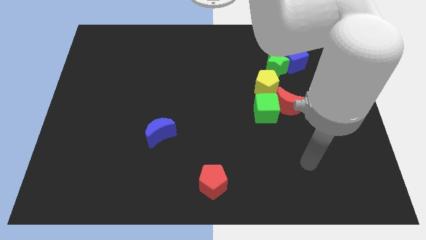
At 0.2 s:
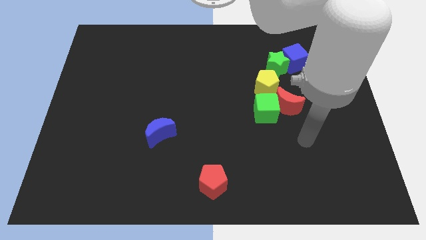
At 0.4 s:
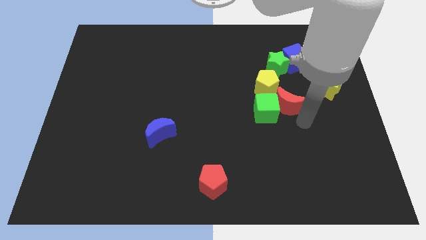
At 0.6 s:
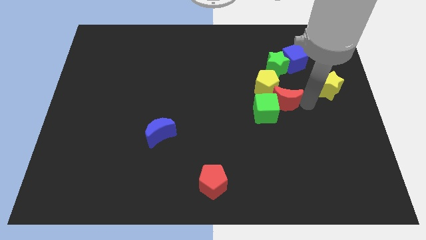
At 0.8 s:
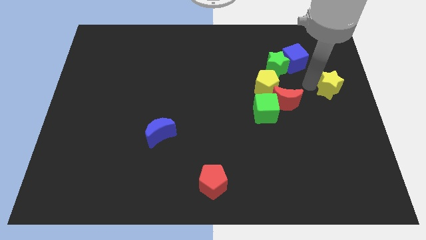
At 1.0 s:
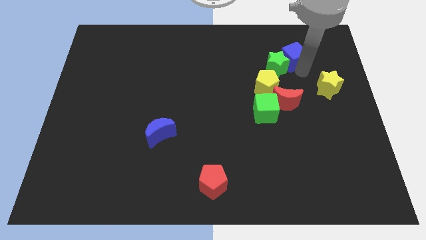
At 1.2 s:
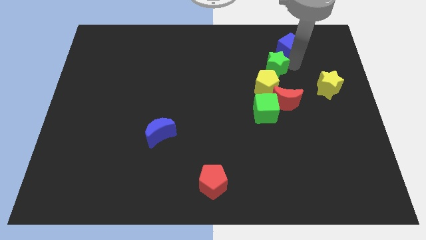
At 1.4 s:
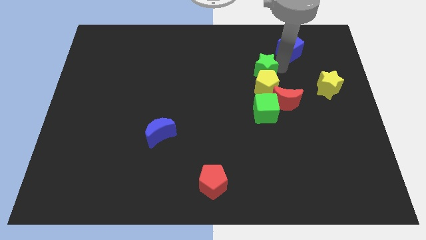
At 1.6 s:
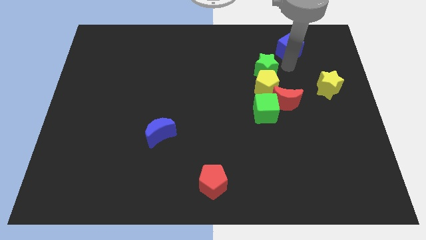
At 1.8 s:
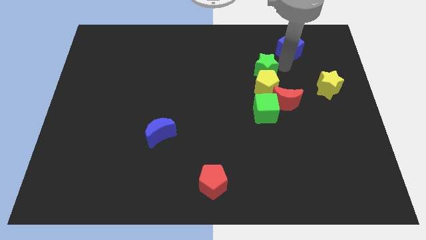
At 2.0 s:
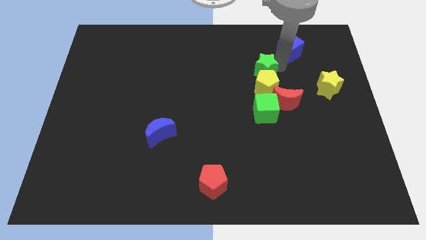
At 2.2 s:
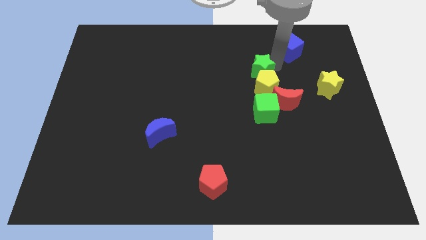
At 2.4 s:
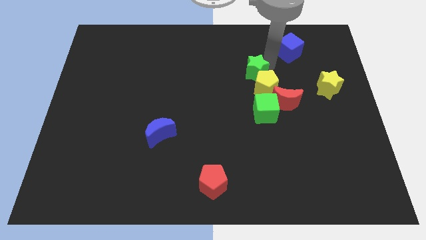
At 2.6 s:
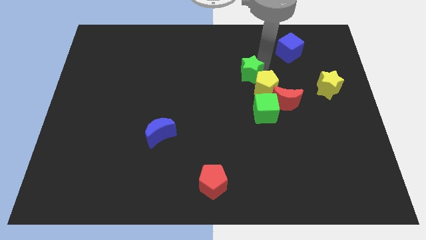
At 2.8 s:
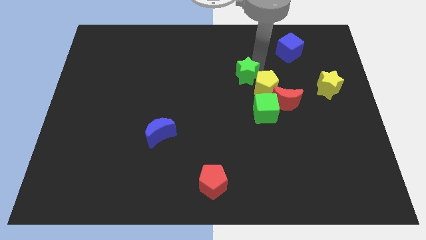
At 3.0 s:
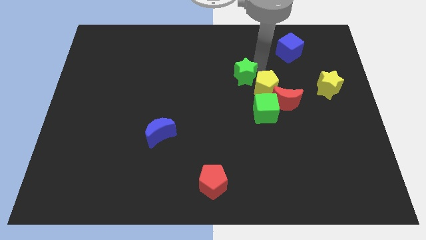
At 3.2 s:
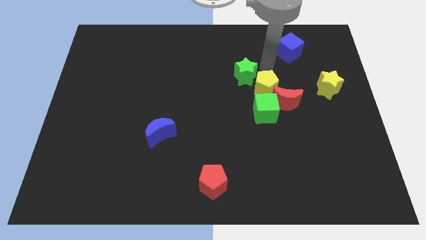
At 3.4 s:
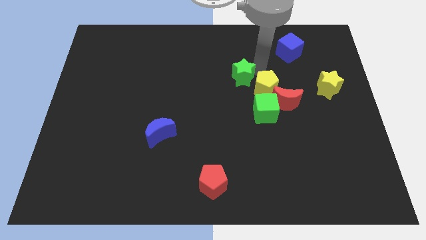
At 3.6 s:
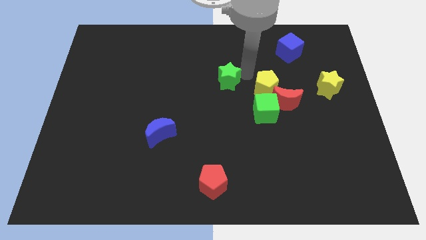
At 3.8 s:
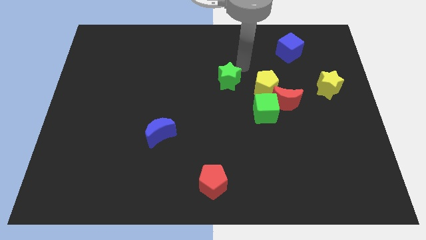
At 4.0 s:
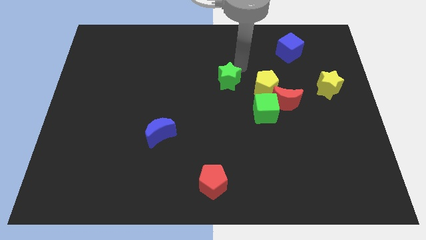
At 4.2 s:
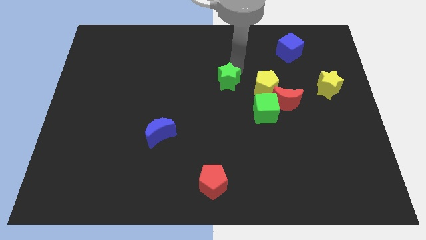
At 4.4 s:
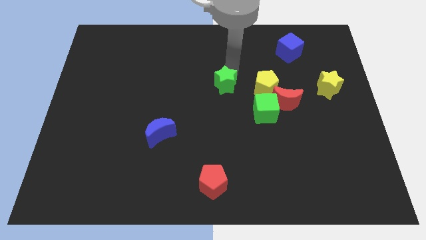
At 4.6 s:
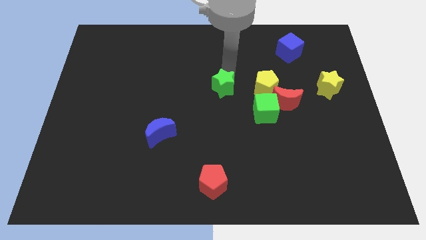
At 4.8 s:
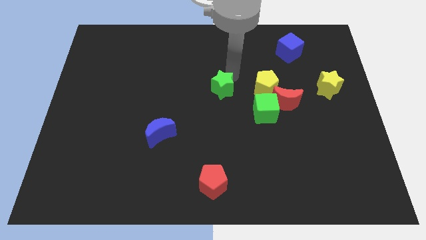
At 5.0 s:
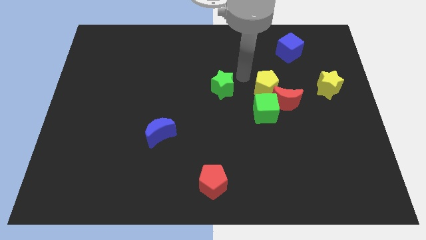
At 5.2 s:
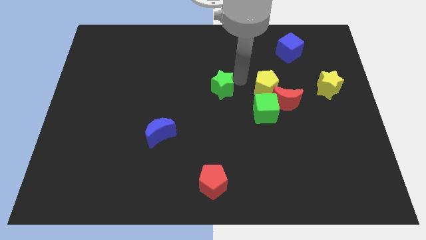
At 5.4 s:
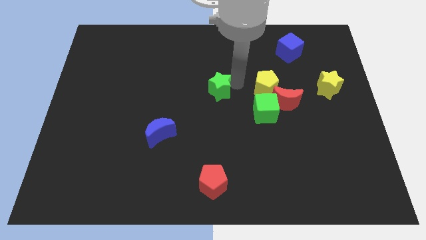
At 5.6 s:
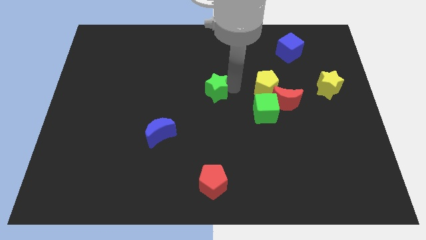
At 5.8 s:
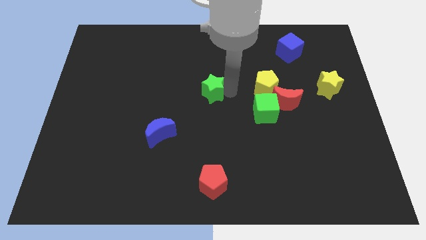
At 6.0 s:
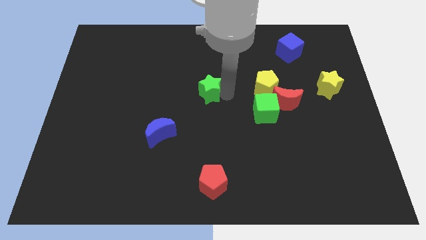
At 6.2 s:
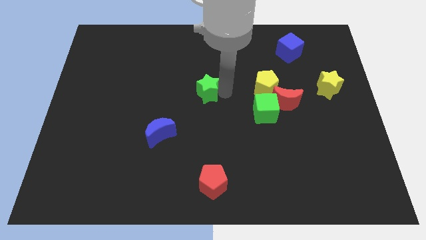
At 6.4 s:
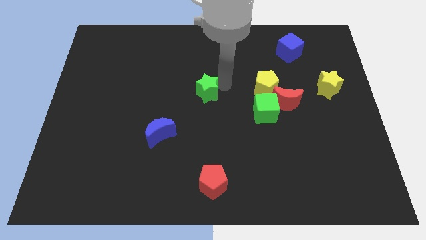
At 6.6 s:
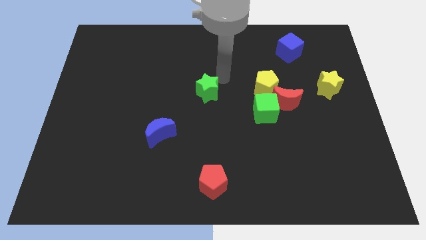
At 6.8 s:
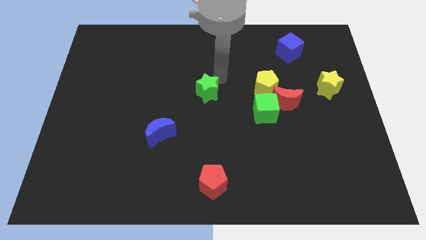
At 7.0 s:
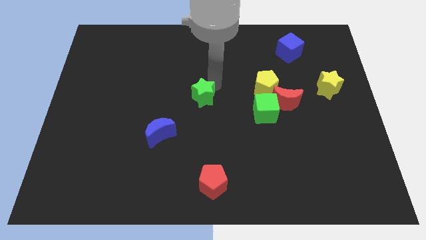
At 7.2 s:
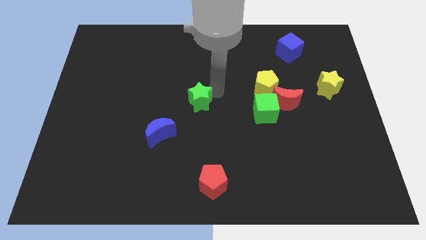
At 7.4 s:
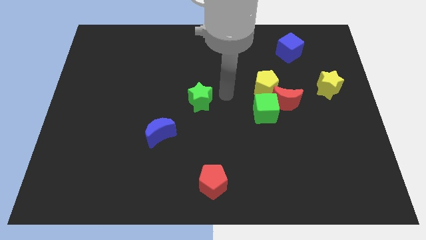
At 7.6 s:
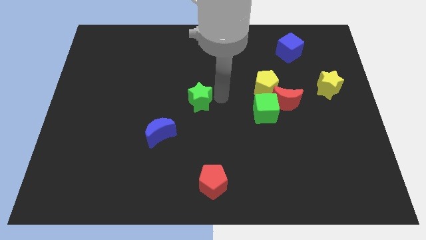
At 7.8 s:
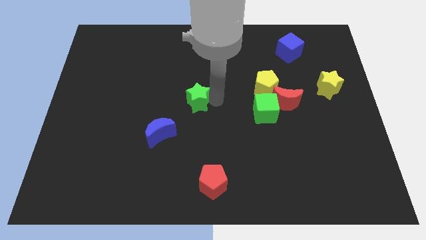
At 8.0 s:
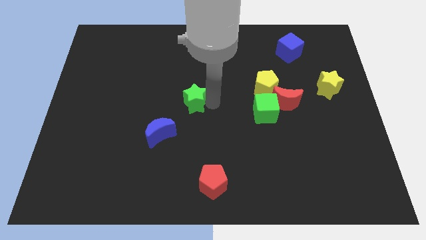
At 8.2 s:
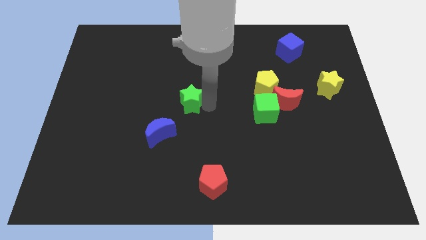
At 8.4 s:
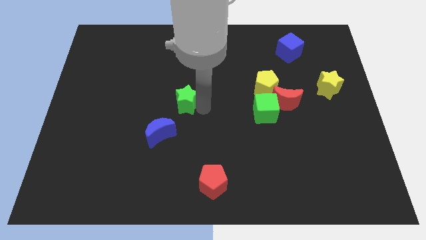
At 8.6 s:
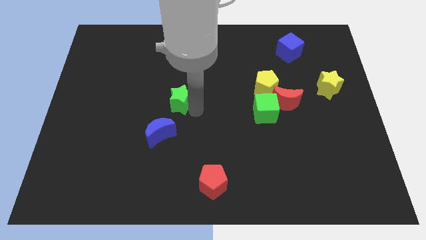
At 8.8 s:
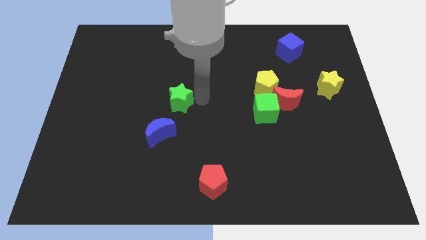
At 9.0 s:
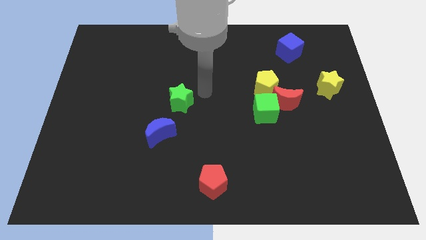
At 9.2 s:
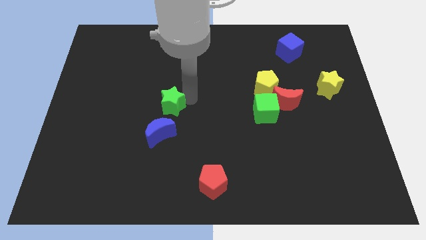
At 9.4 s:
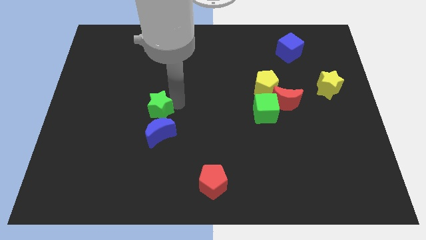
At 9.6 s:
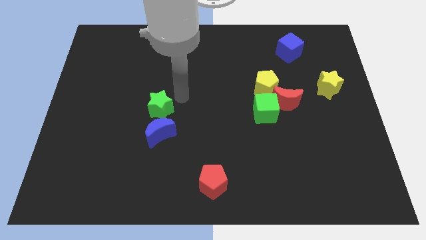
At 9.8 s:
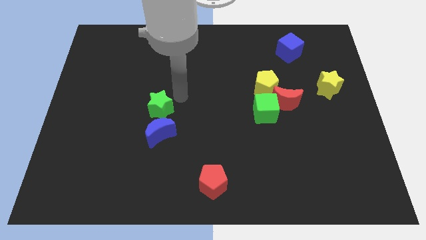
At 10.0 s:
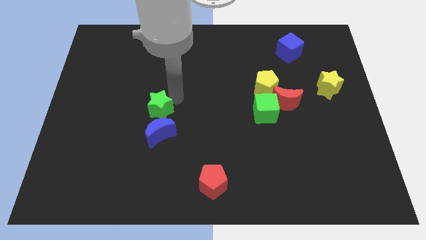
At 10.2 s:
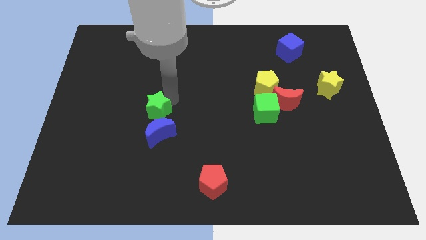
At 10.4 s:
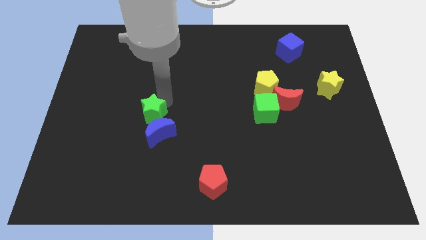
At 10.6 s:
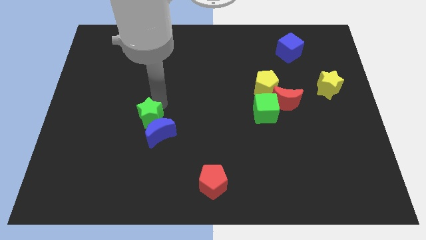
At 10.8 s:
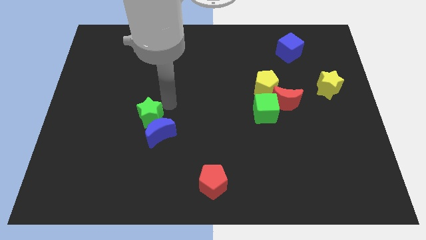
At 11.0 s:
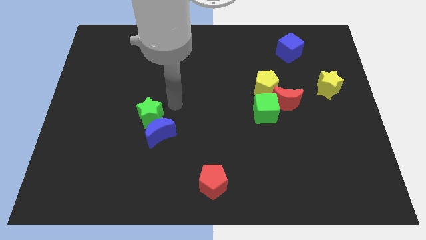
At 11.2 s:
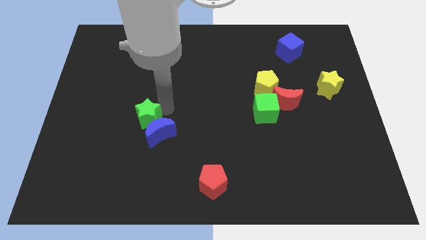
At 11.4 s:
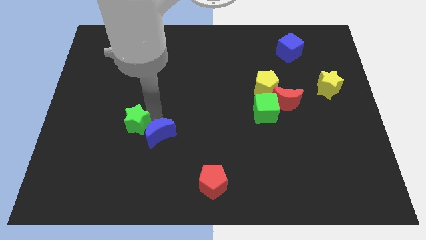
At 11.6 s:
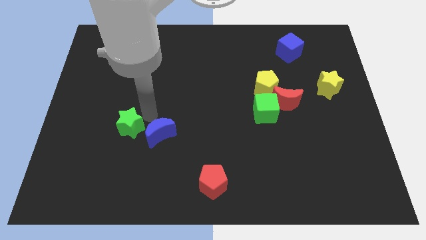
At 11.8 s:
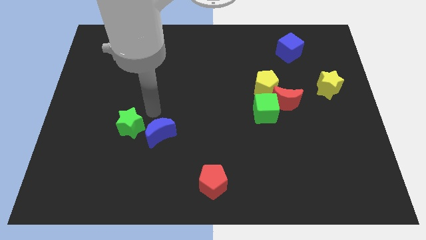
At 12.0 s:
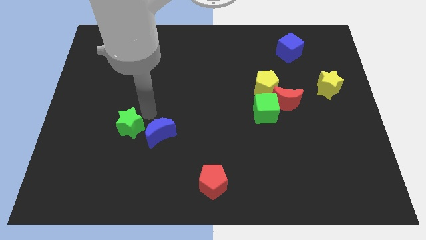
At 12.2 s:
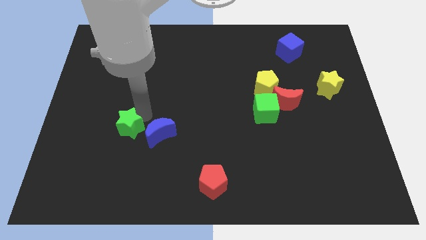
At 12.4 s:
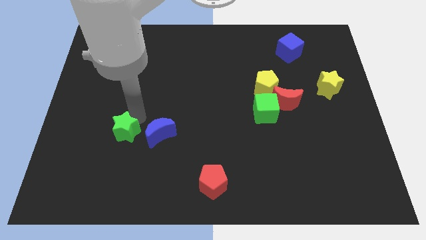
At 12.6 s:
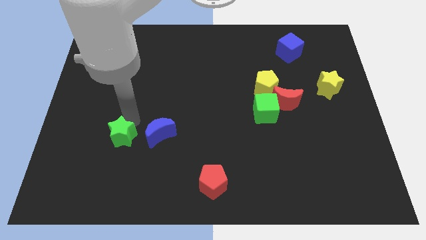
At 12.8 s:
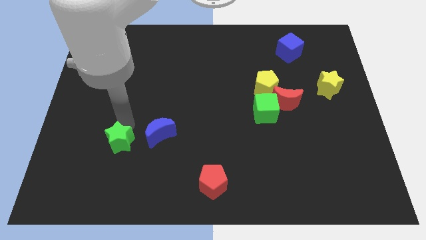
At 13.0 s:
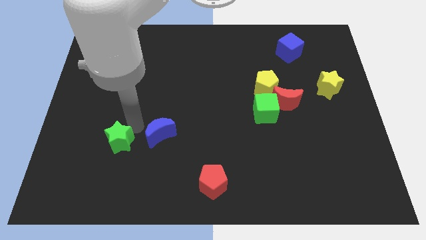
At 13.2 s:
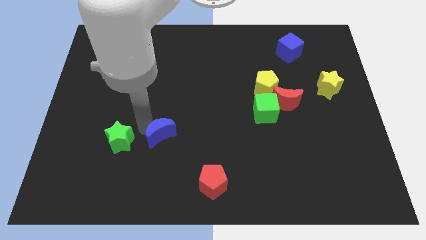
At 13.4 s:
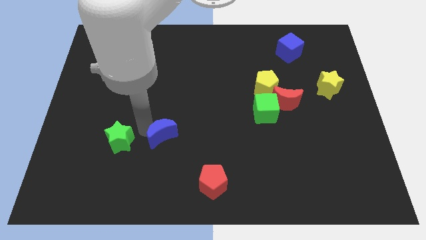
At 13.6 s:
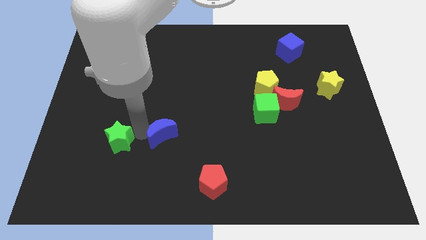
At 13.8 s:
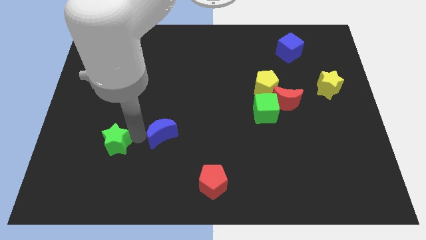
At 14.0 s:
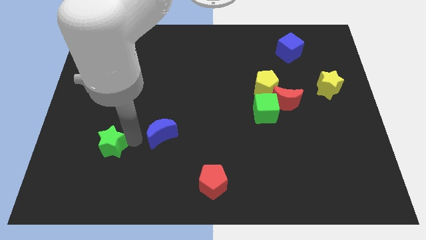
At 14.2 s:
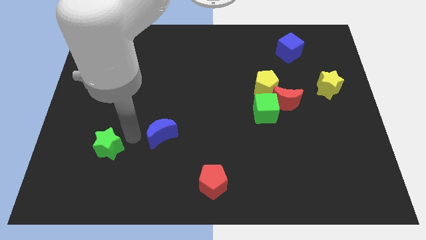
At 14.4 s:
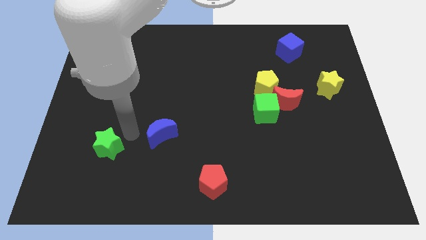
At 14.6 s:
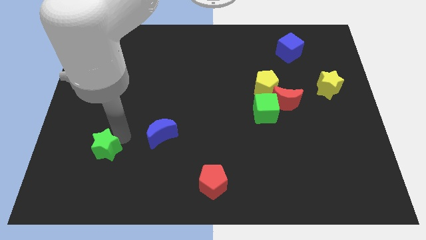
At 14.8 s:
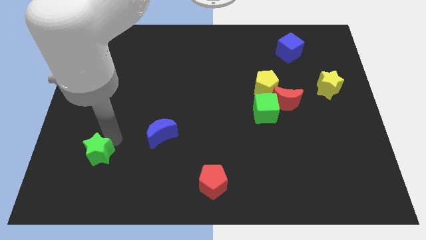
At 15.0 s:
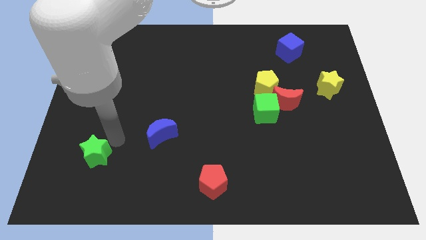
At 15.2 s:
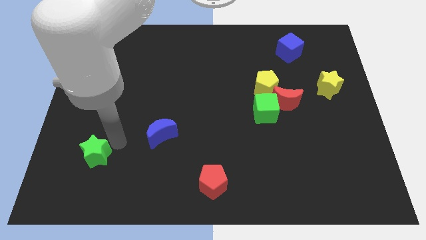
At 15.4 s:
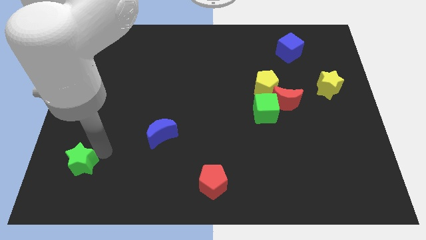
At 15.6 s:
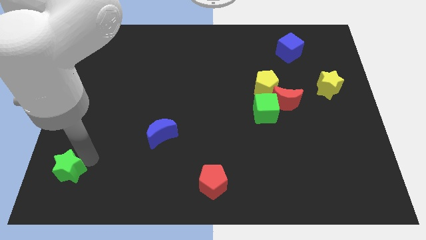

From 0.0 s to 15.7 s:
put the green star to the bottom left corner
